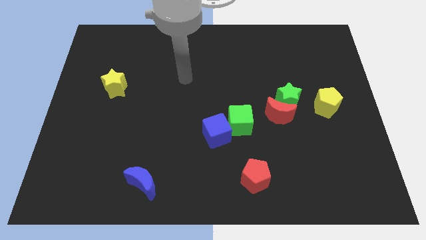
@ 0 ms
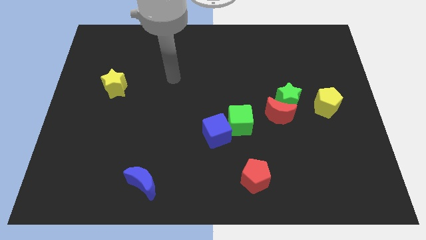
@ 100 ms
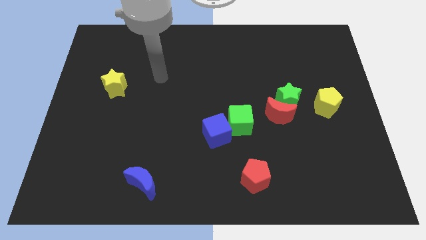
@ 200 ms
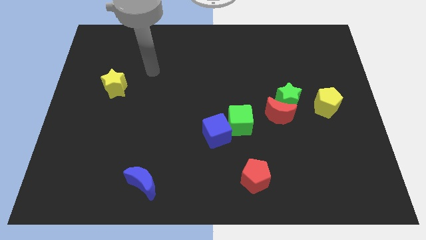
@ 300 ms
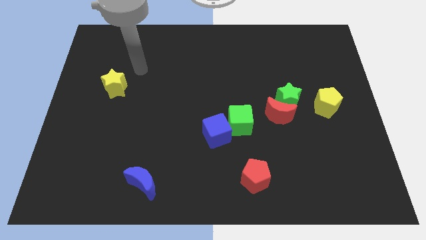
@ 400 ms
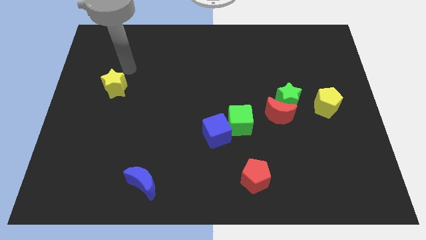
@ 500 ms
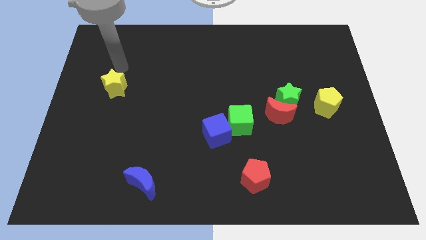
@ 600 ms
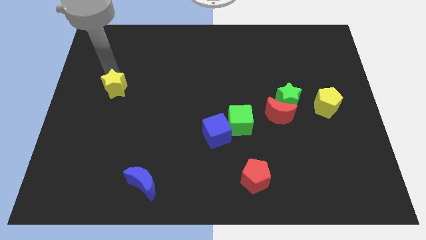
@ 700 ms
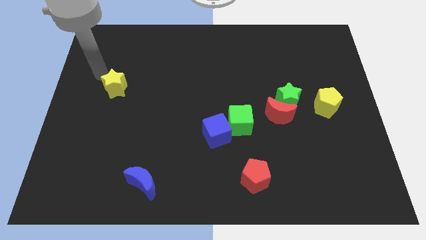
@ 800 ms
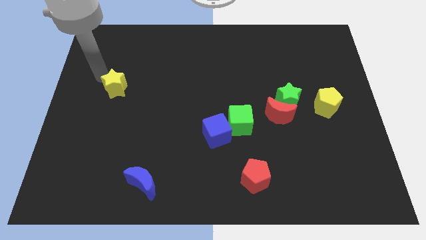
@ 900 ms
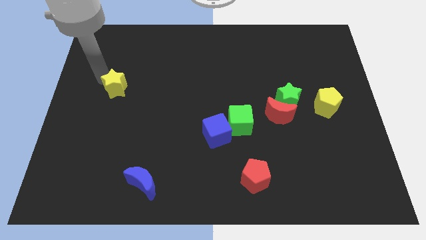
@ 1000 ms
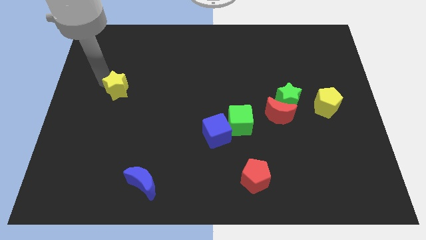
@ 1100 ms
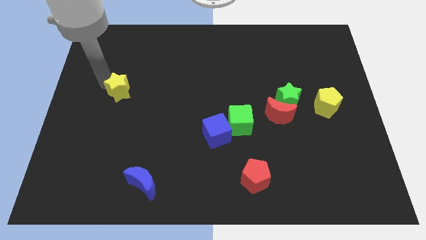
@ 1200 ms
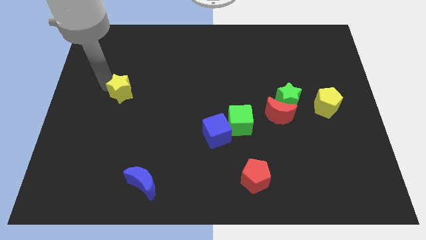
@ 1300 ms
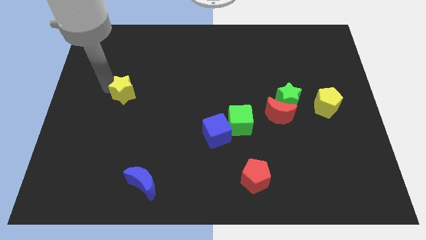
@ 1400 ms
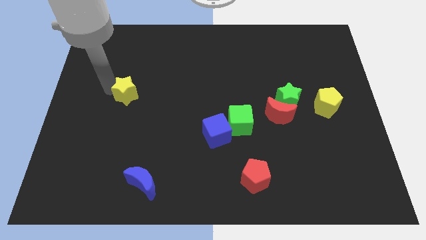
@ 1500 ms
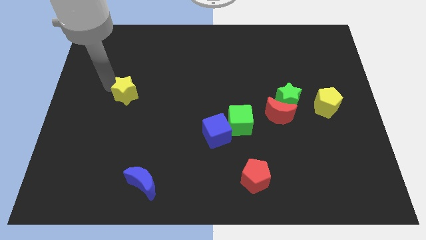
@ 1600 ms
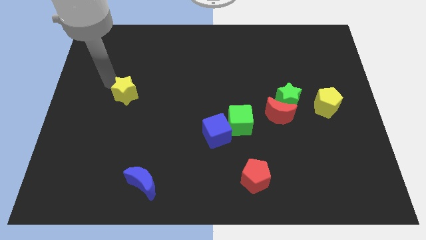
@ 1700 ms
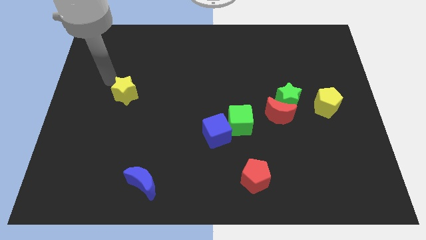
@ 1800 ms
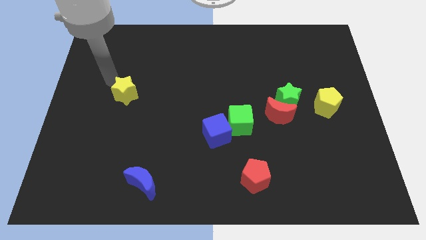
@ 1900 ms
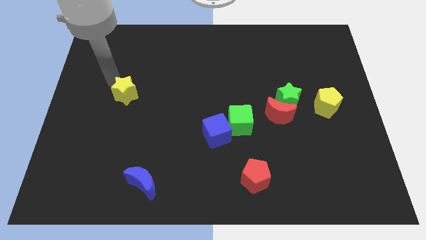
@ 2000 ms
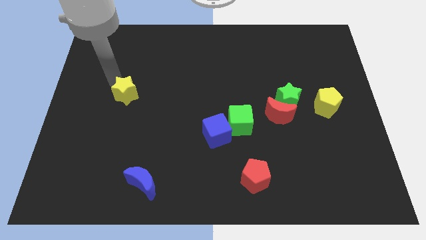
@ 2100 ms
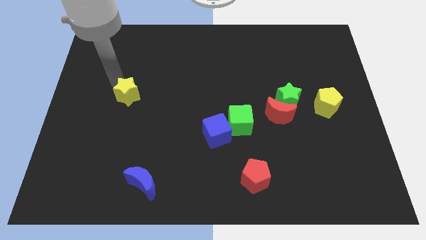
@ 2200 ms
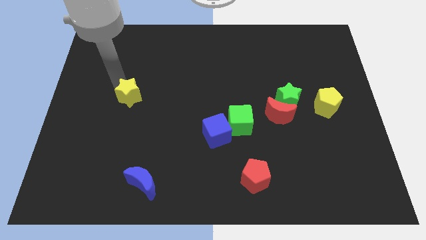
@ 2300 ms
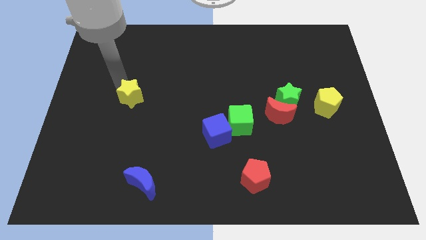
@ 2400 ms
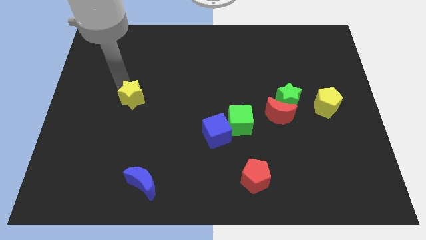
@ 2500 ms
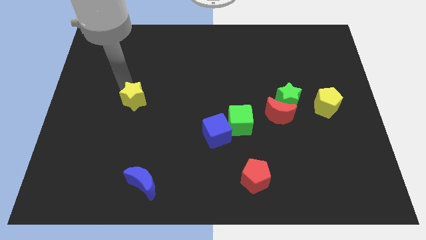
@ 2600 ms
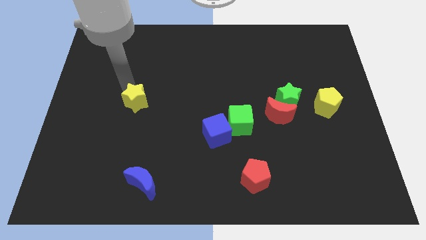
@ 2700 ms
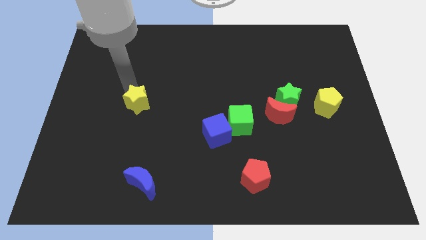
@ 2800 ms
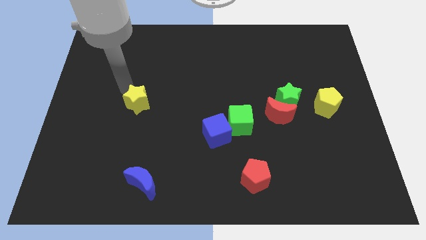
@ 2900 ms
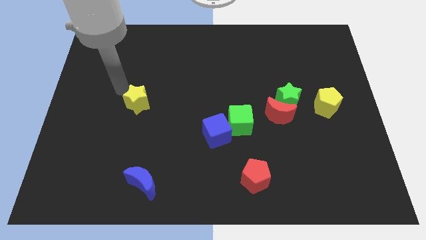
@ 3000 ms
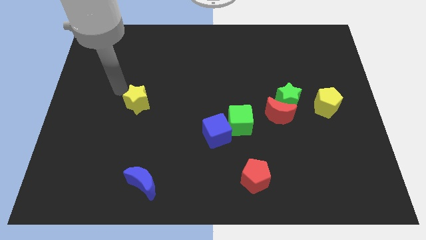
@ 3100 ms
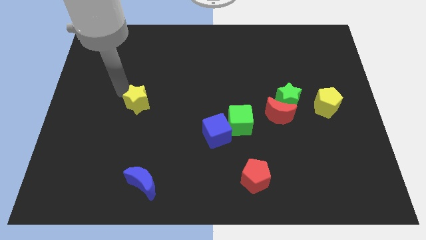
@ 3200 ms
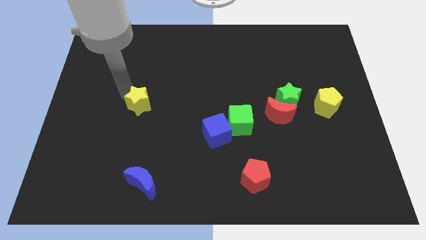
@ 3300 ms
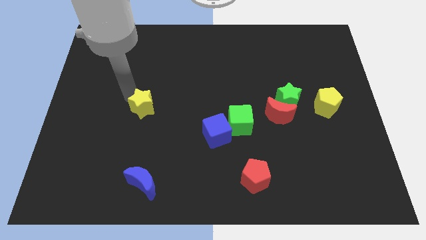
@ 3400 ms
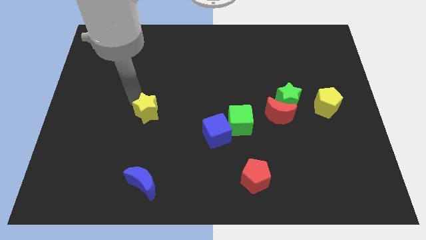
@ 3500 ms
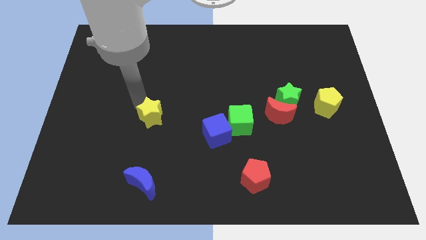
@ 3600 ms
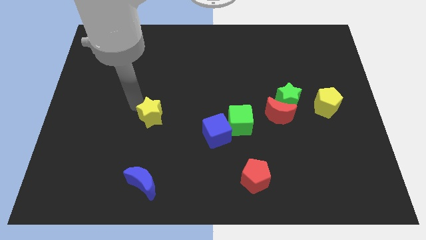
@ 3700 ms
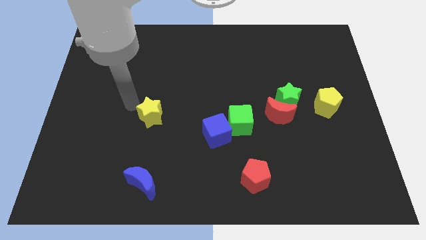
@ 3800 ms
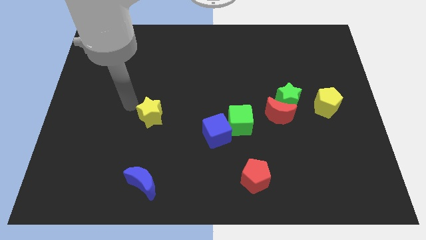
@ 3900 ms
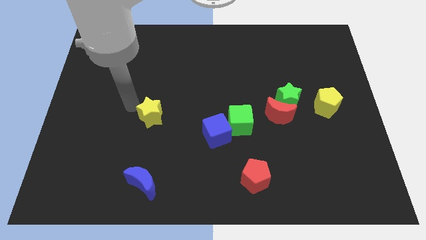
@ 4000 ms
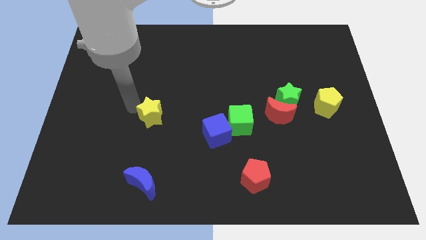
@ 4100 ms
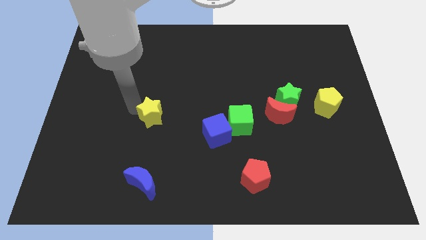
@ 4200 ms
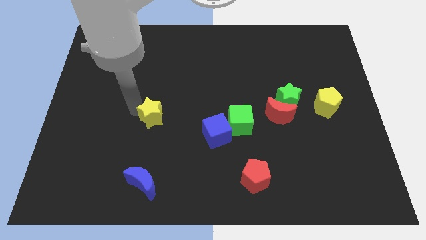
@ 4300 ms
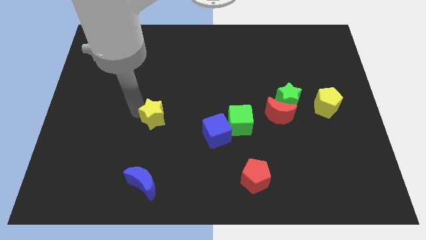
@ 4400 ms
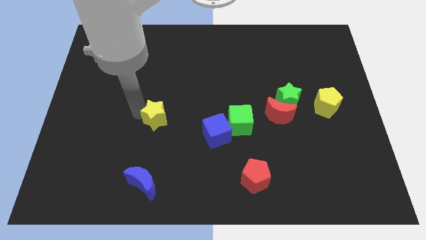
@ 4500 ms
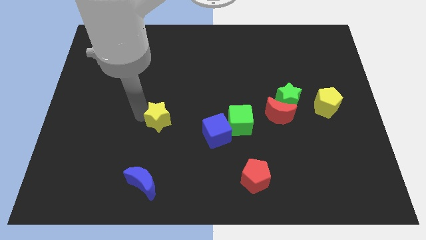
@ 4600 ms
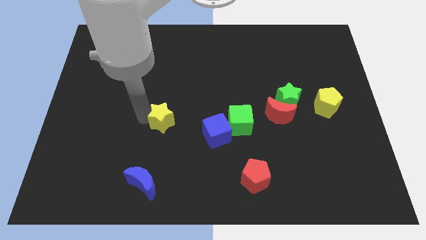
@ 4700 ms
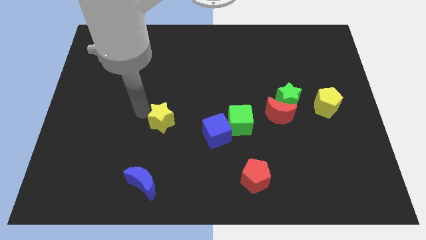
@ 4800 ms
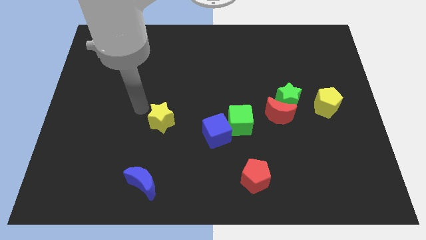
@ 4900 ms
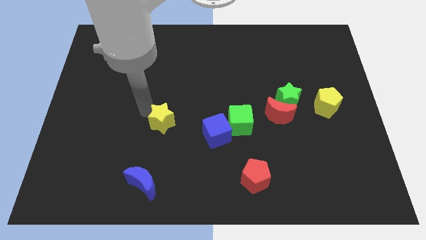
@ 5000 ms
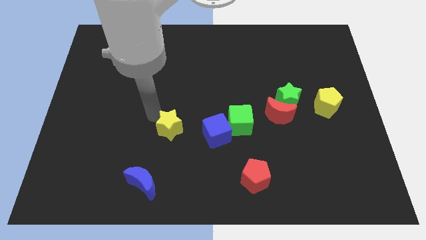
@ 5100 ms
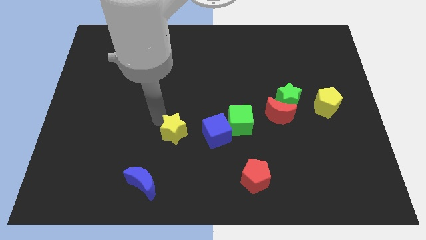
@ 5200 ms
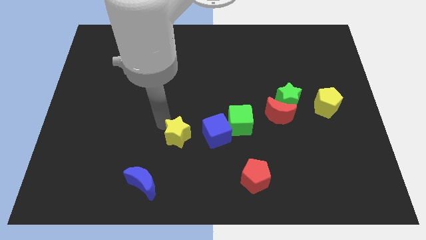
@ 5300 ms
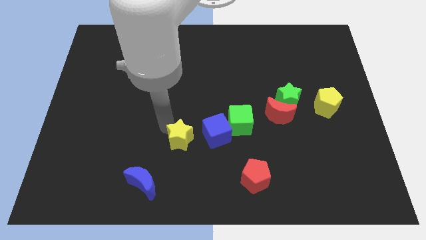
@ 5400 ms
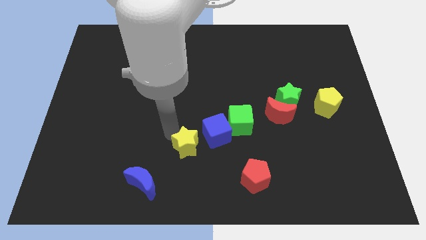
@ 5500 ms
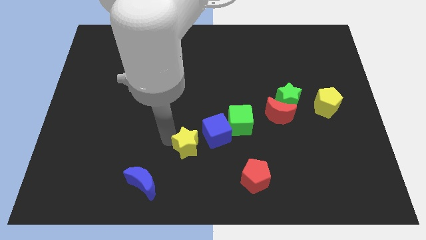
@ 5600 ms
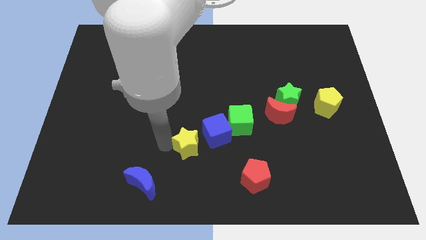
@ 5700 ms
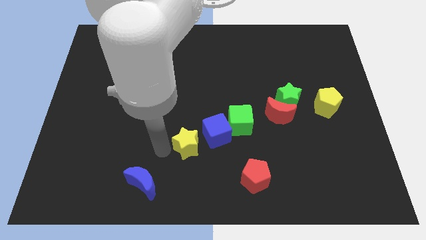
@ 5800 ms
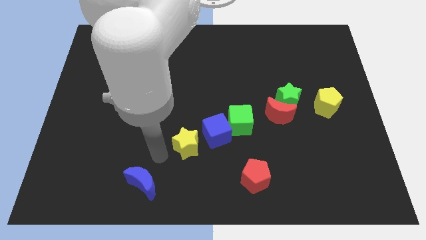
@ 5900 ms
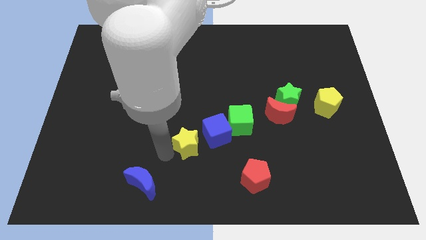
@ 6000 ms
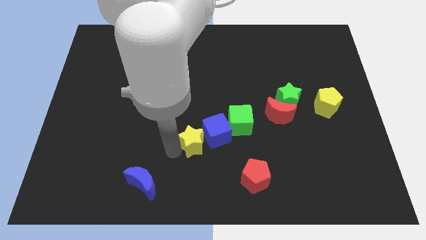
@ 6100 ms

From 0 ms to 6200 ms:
move the yellow star to the blue cube

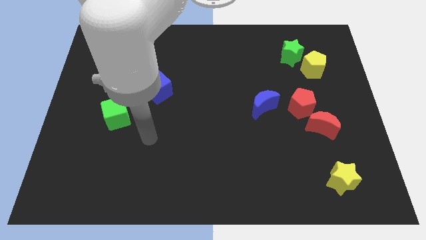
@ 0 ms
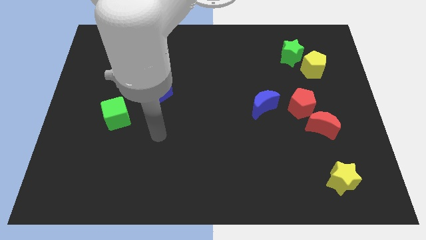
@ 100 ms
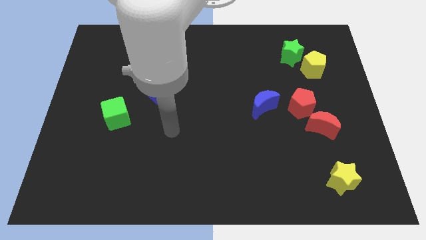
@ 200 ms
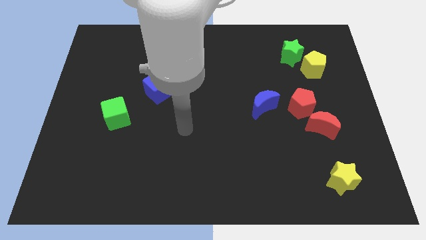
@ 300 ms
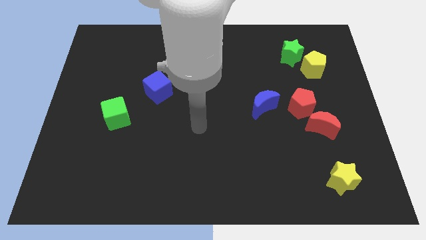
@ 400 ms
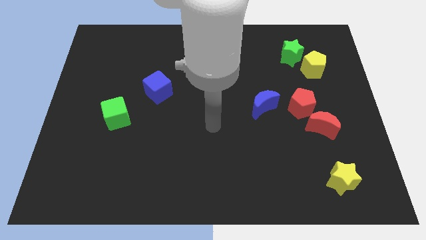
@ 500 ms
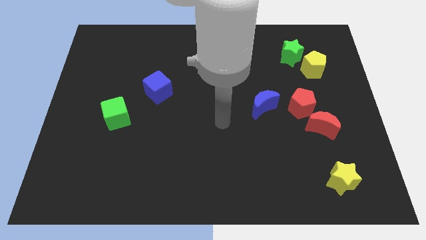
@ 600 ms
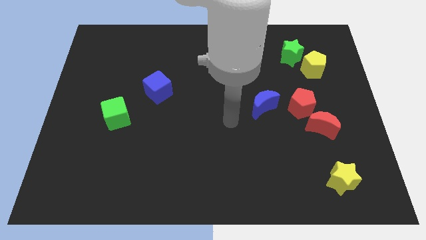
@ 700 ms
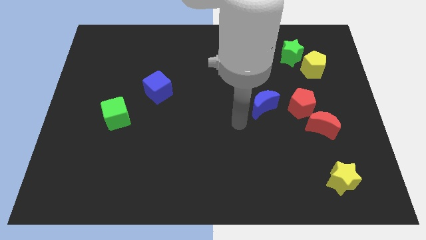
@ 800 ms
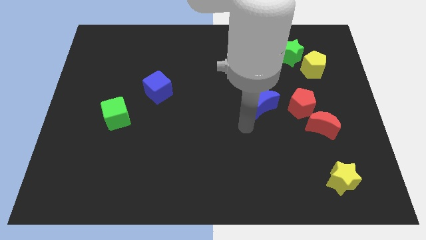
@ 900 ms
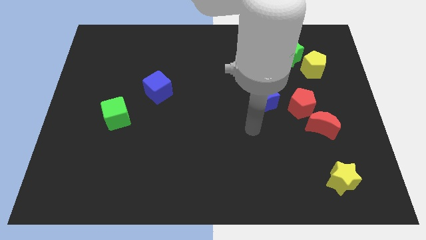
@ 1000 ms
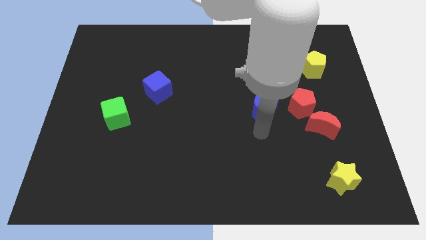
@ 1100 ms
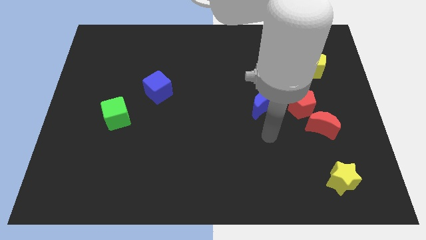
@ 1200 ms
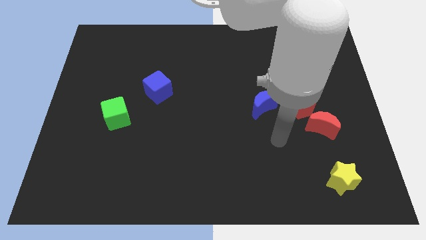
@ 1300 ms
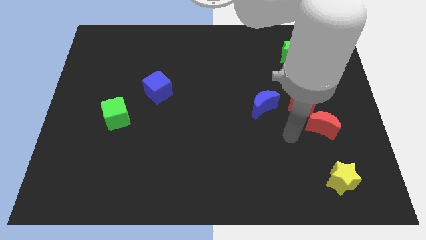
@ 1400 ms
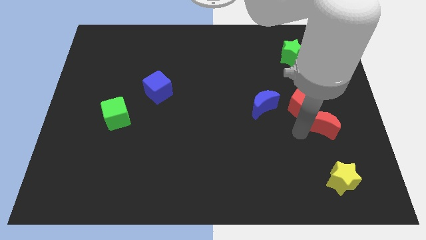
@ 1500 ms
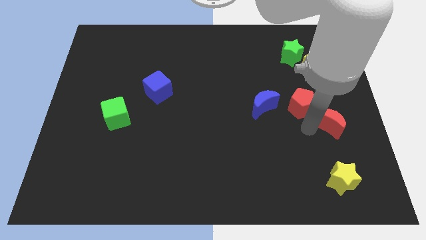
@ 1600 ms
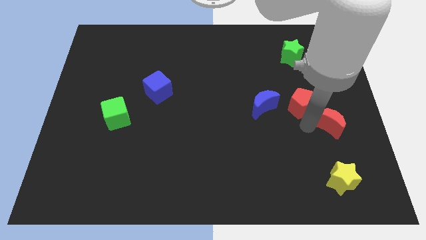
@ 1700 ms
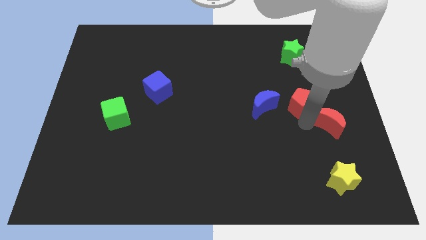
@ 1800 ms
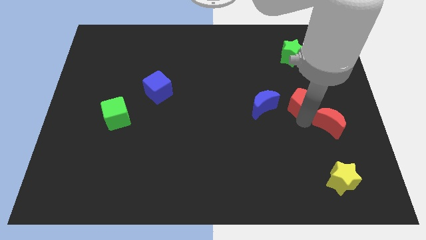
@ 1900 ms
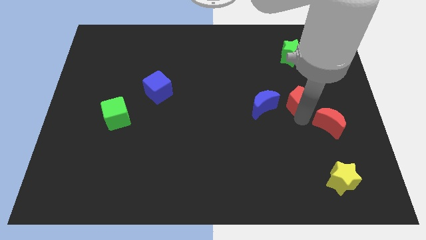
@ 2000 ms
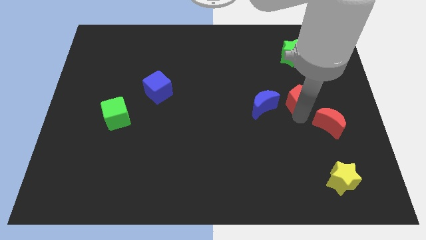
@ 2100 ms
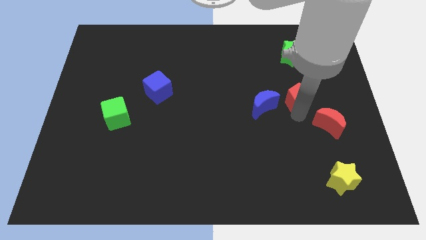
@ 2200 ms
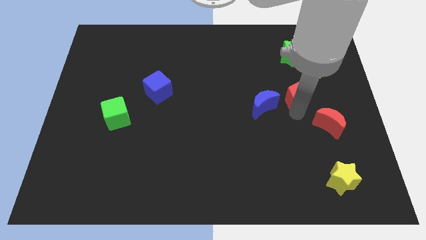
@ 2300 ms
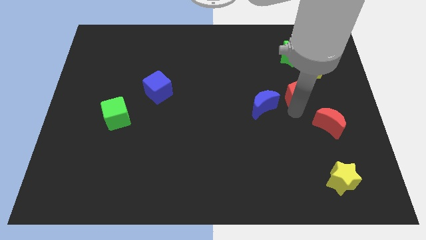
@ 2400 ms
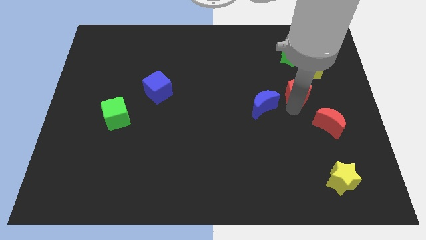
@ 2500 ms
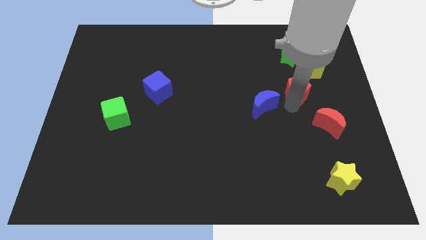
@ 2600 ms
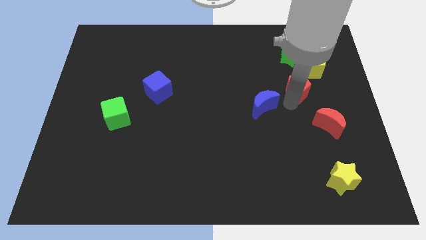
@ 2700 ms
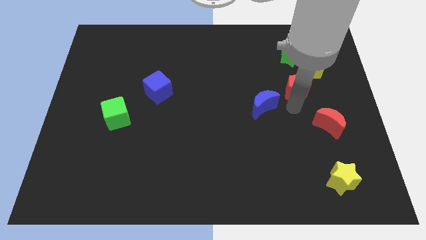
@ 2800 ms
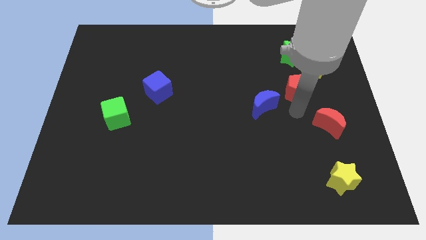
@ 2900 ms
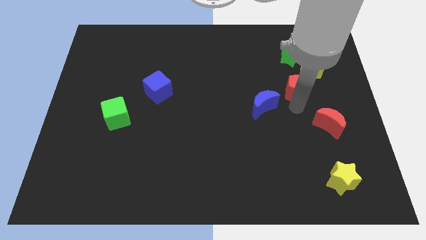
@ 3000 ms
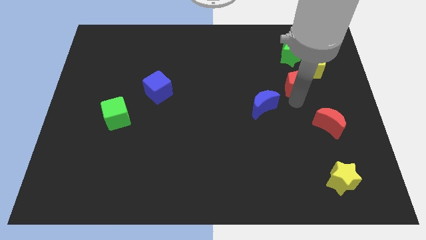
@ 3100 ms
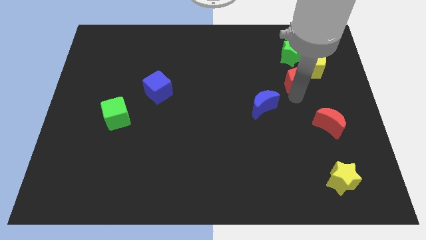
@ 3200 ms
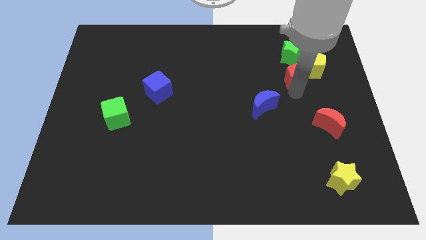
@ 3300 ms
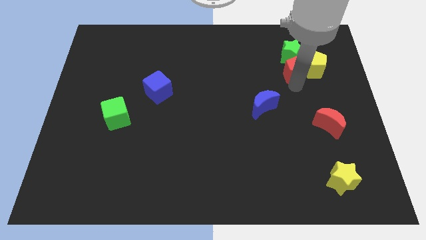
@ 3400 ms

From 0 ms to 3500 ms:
put the red pentagon next to the green star
